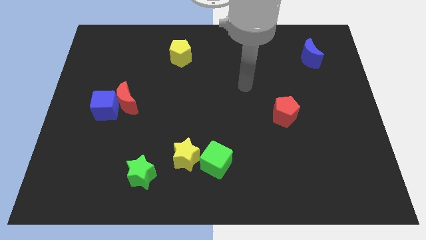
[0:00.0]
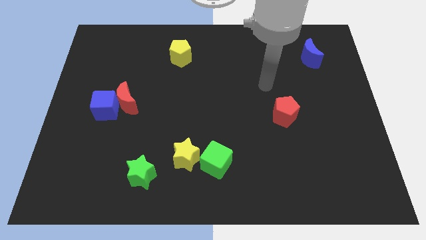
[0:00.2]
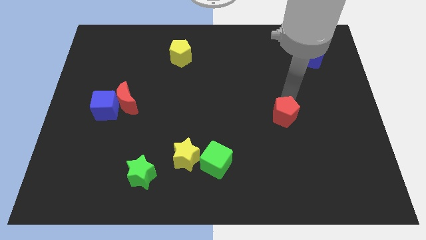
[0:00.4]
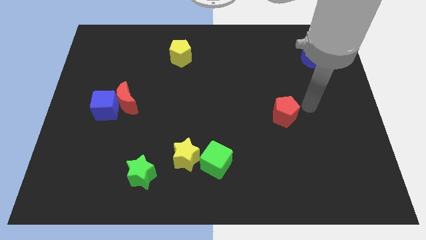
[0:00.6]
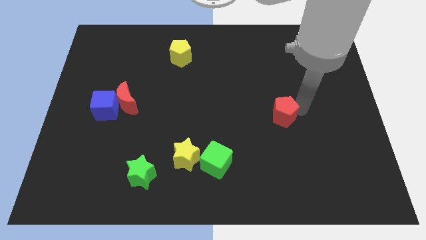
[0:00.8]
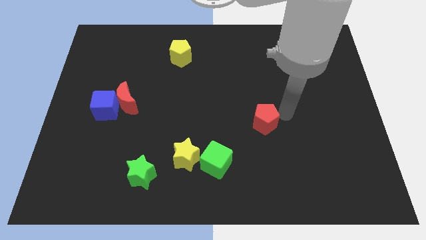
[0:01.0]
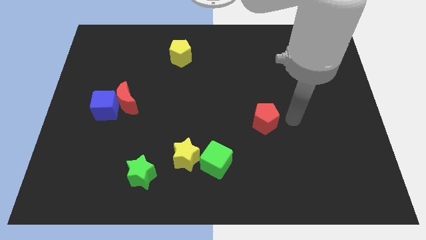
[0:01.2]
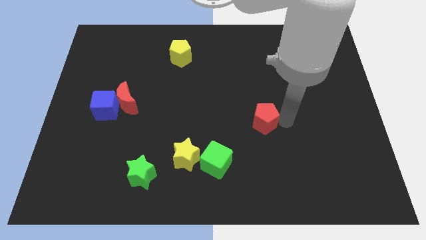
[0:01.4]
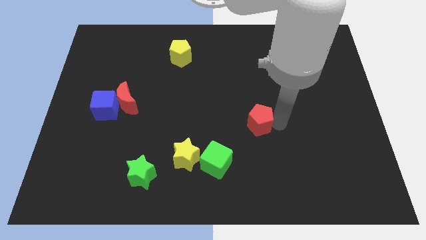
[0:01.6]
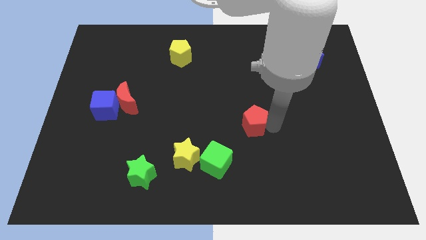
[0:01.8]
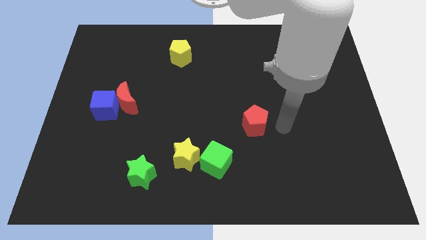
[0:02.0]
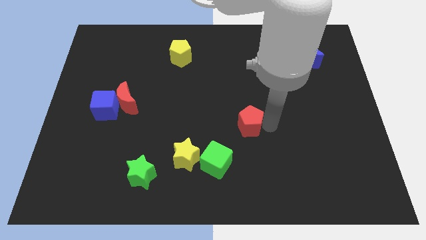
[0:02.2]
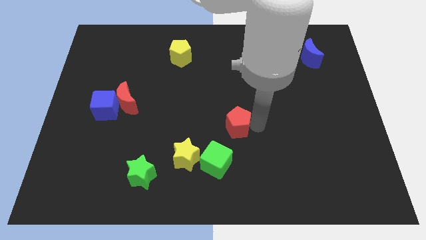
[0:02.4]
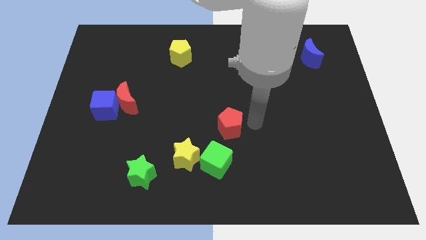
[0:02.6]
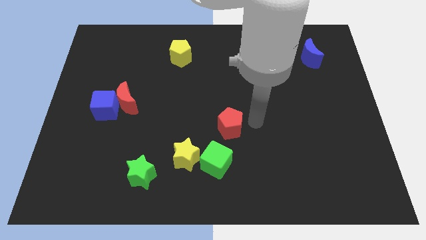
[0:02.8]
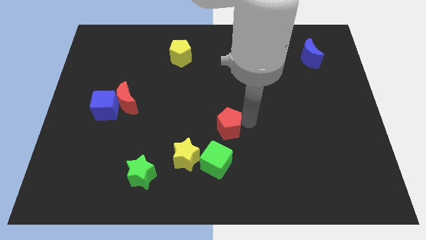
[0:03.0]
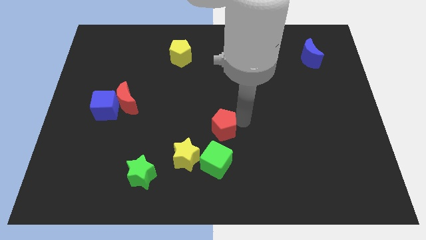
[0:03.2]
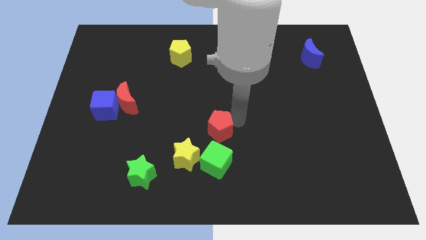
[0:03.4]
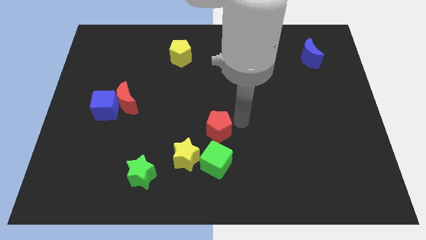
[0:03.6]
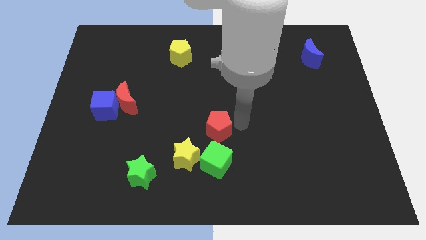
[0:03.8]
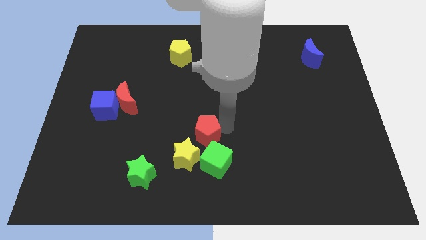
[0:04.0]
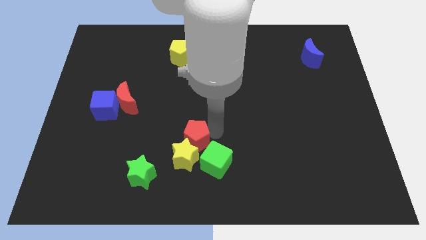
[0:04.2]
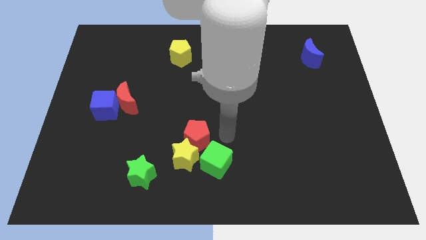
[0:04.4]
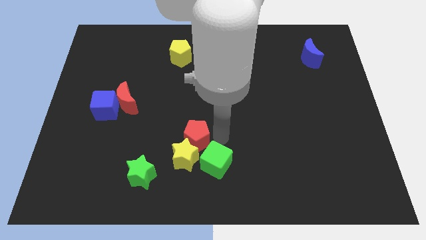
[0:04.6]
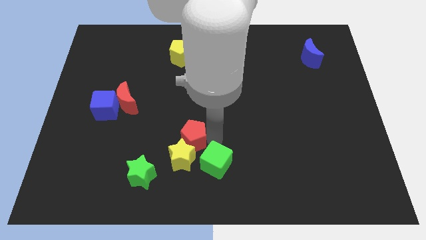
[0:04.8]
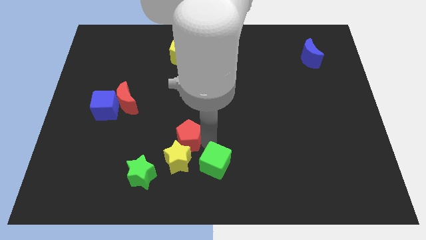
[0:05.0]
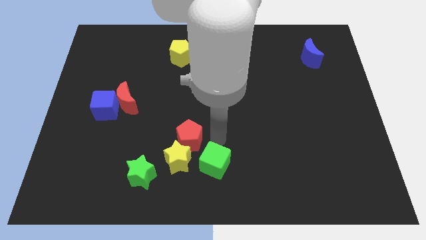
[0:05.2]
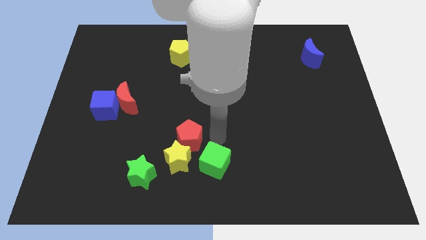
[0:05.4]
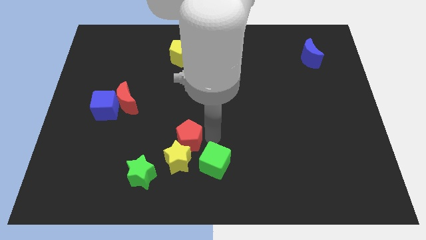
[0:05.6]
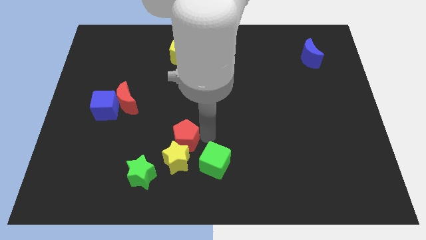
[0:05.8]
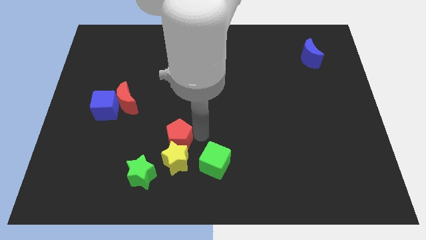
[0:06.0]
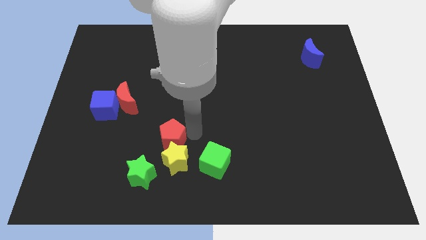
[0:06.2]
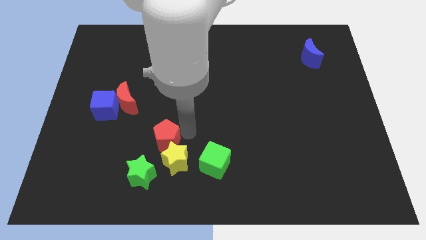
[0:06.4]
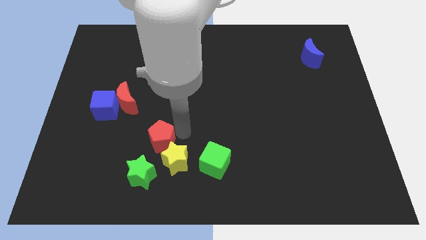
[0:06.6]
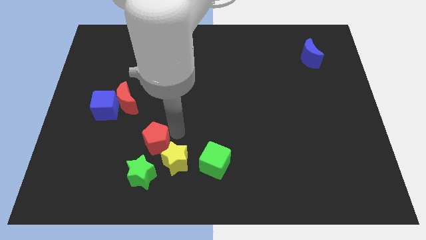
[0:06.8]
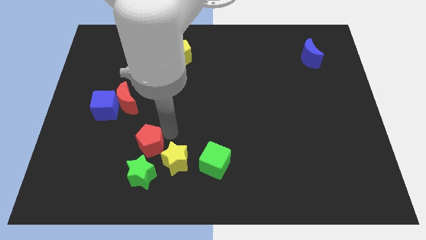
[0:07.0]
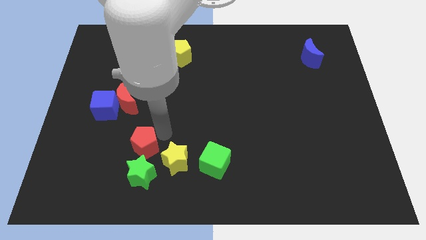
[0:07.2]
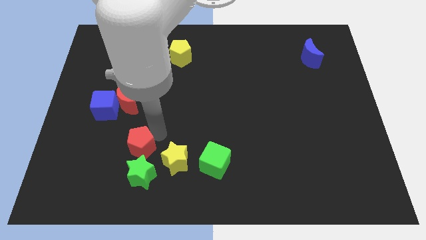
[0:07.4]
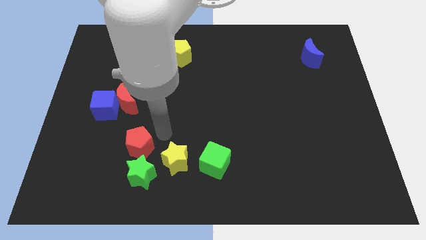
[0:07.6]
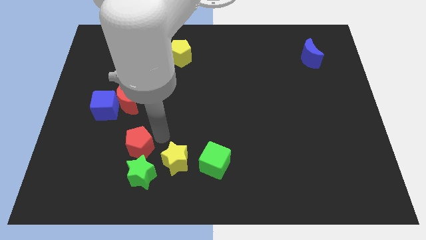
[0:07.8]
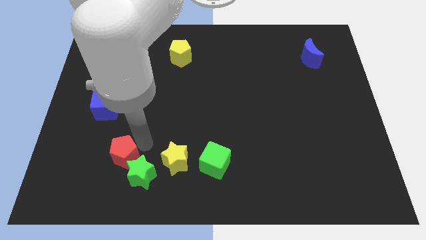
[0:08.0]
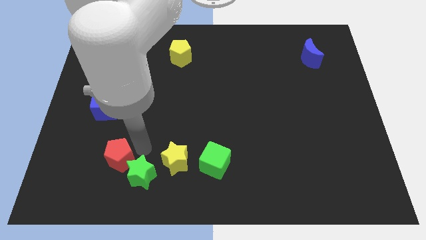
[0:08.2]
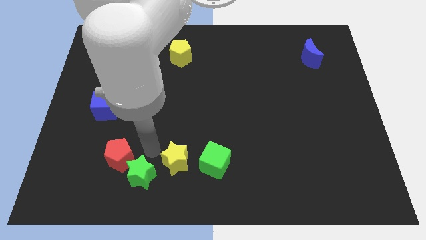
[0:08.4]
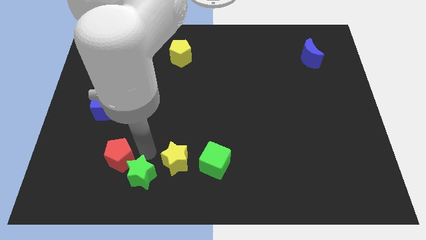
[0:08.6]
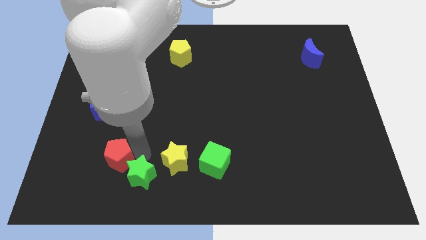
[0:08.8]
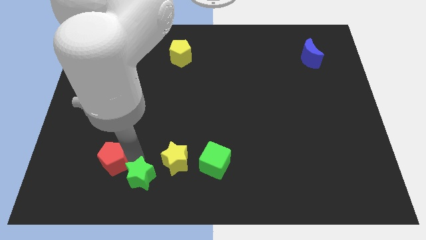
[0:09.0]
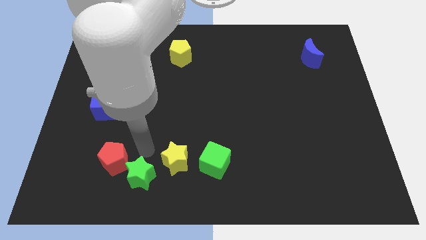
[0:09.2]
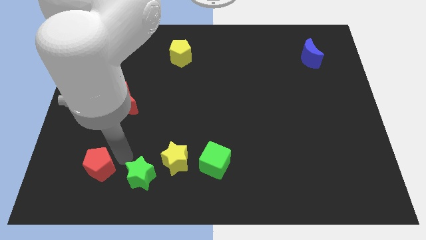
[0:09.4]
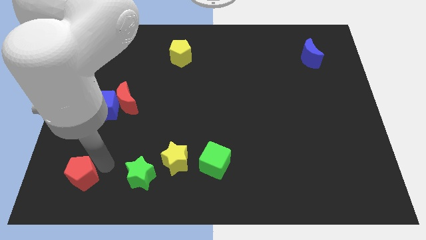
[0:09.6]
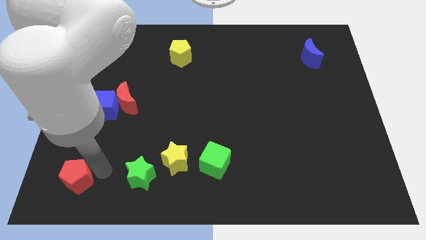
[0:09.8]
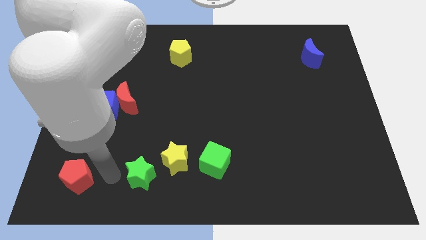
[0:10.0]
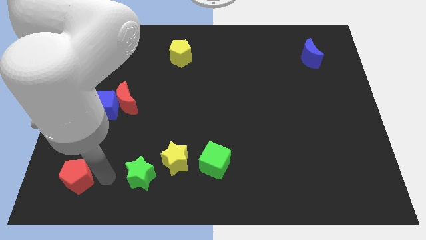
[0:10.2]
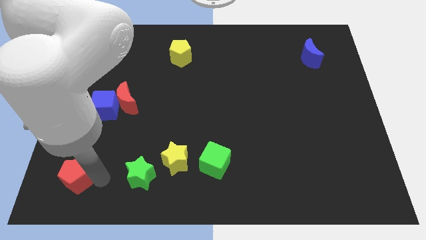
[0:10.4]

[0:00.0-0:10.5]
move the red pentagon to the bottom left of the board

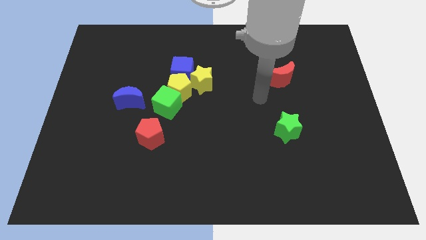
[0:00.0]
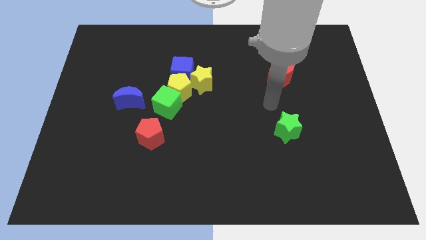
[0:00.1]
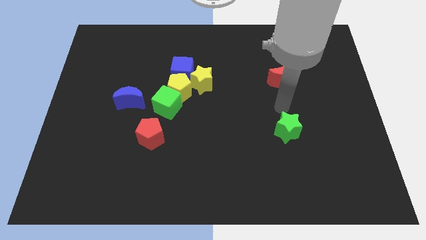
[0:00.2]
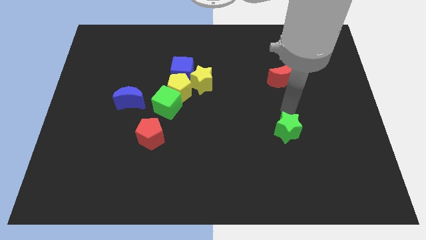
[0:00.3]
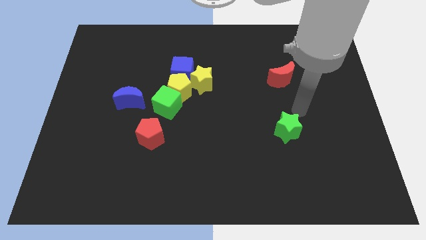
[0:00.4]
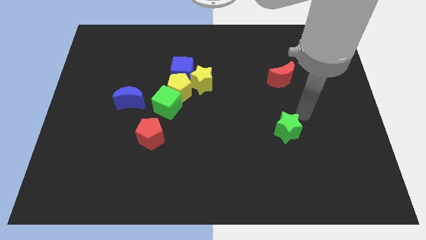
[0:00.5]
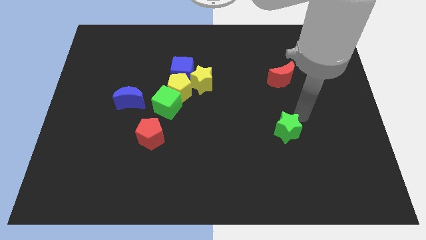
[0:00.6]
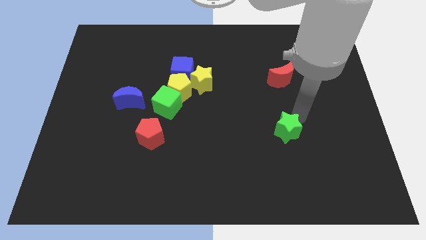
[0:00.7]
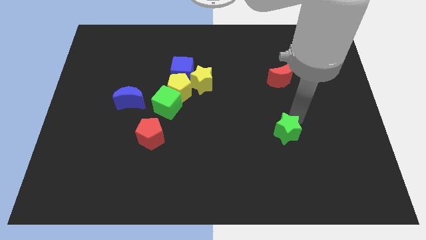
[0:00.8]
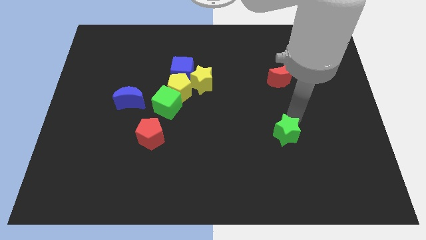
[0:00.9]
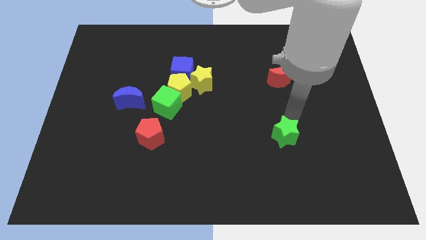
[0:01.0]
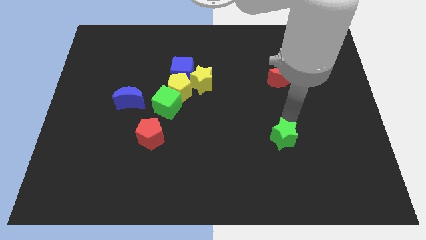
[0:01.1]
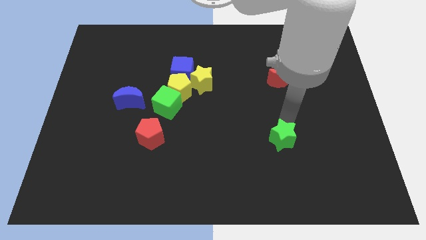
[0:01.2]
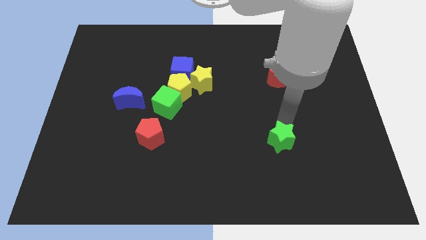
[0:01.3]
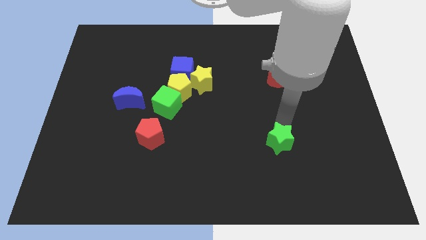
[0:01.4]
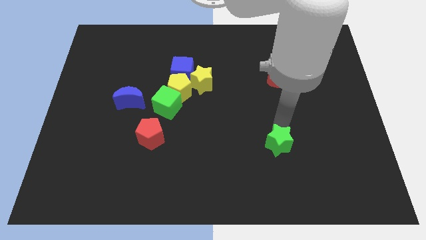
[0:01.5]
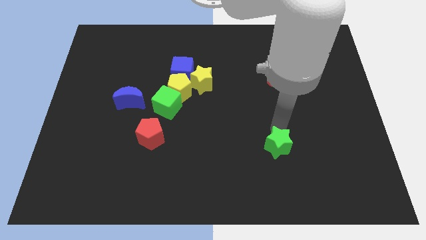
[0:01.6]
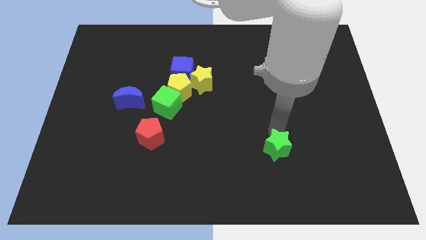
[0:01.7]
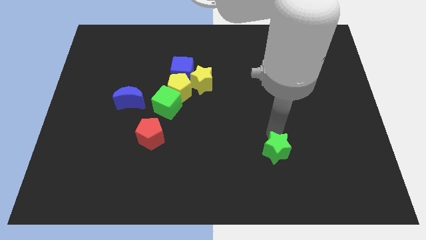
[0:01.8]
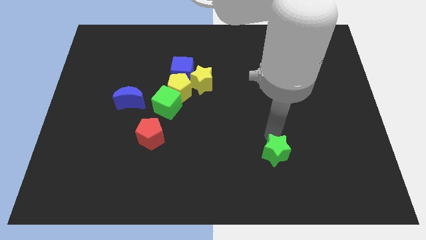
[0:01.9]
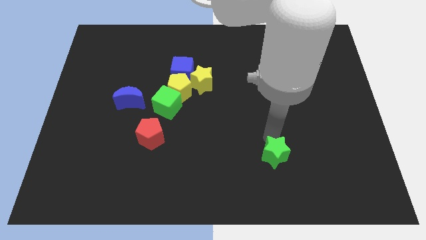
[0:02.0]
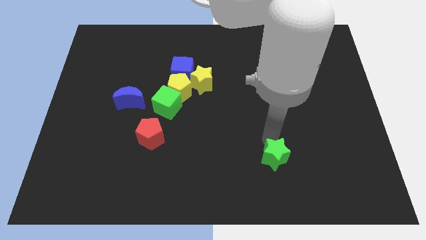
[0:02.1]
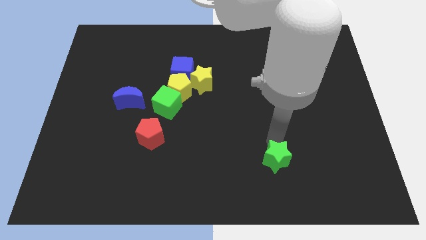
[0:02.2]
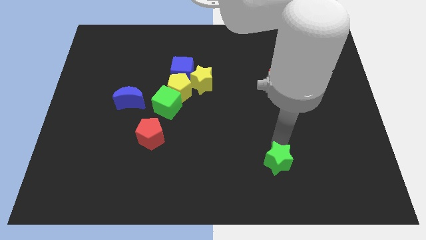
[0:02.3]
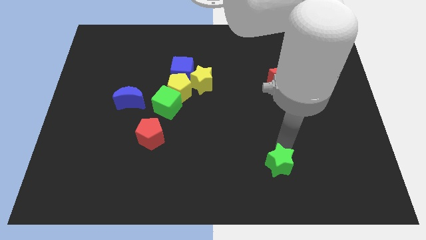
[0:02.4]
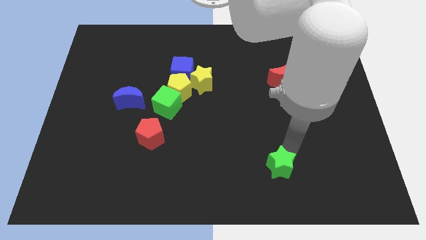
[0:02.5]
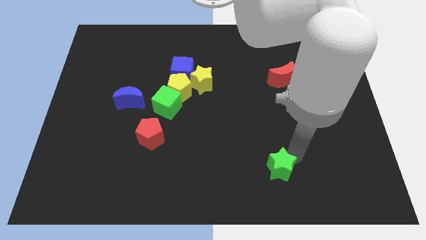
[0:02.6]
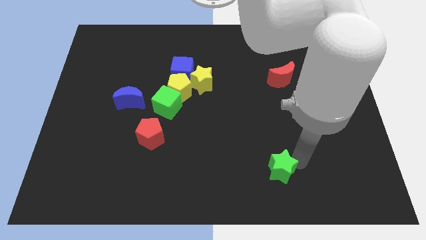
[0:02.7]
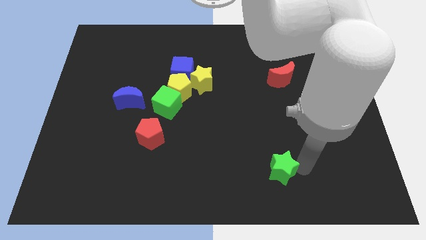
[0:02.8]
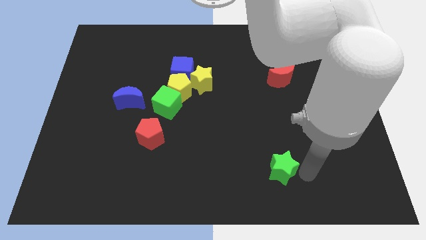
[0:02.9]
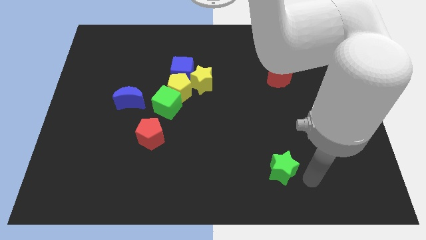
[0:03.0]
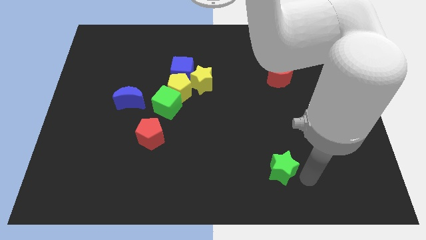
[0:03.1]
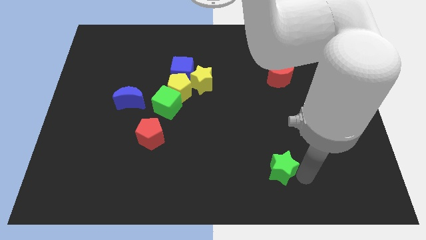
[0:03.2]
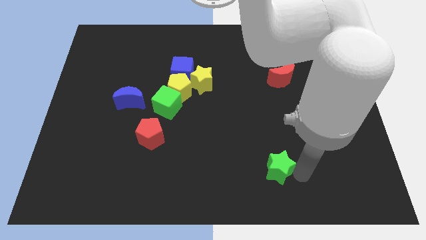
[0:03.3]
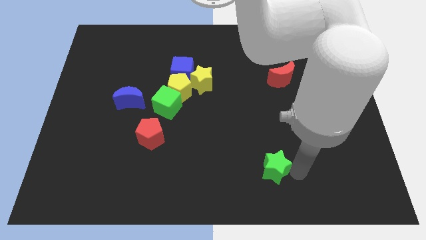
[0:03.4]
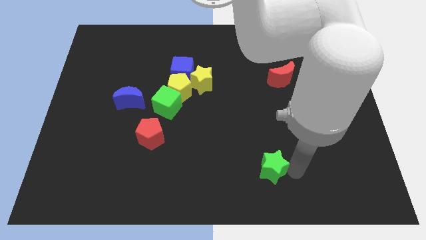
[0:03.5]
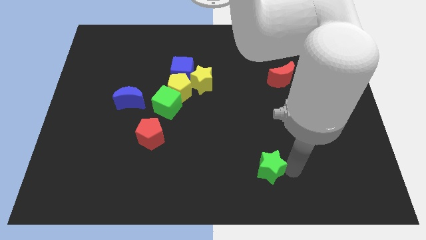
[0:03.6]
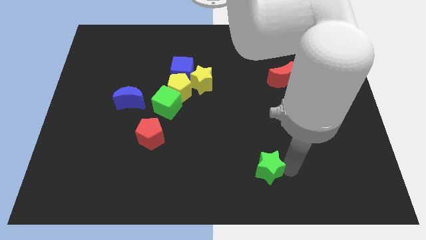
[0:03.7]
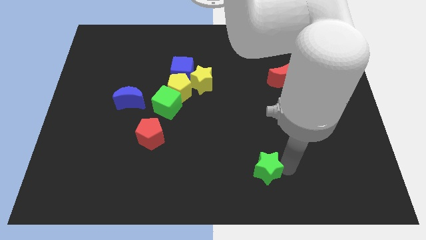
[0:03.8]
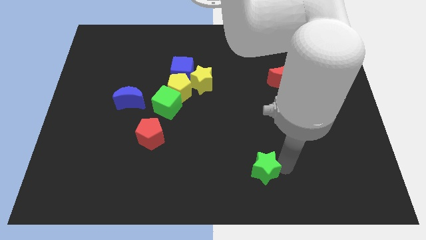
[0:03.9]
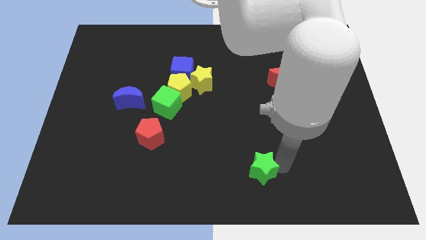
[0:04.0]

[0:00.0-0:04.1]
put the green star to the bottom
